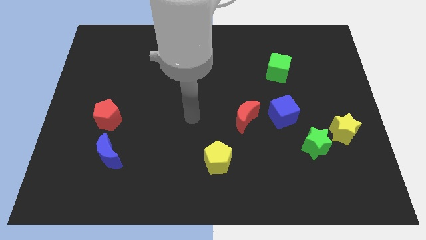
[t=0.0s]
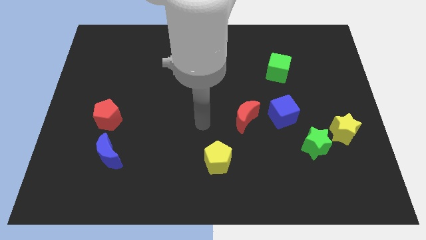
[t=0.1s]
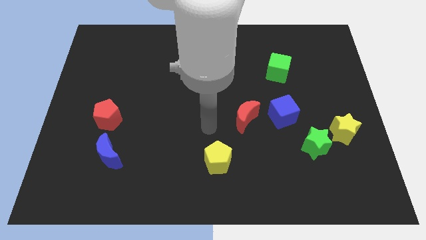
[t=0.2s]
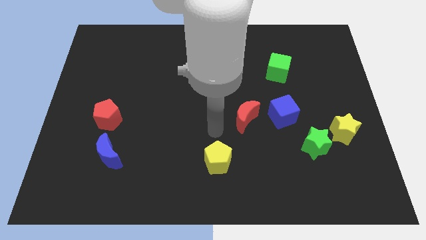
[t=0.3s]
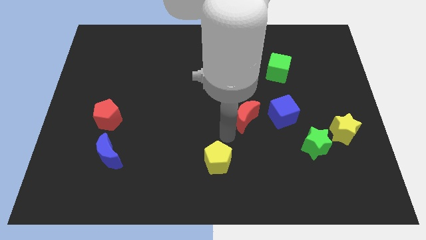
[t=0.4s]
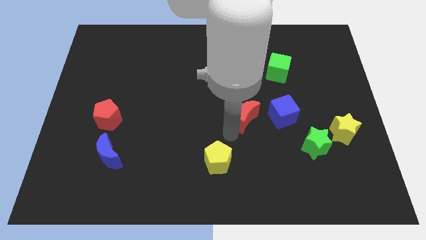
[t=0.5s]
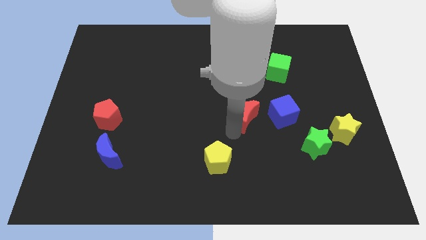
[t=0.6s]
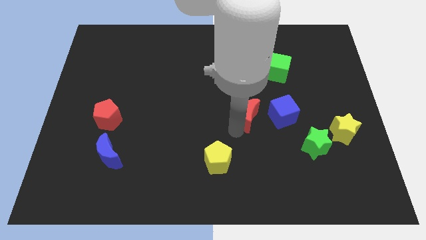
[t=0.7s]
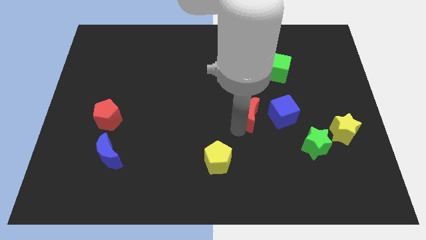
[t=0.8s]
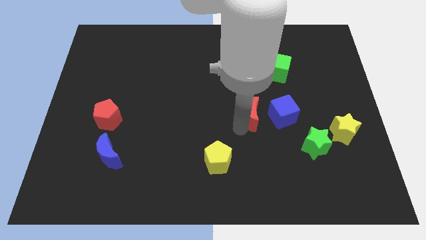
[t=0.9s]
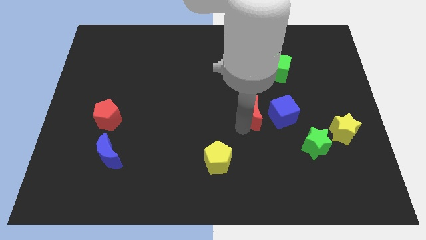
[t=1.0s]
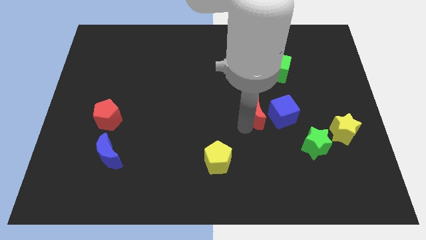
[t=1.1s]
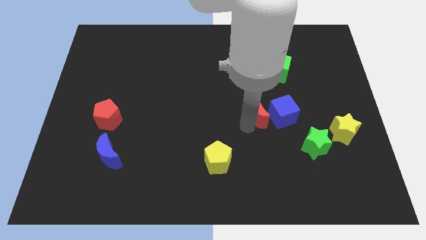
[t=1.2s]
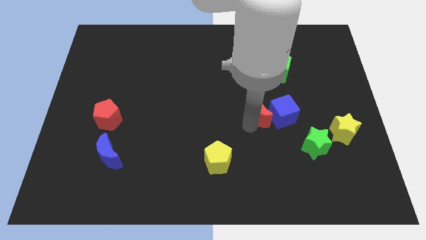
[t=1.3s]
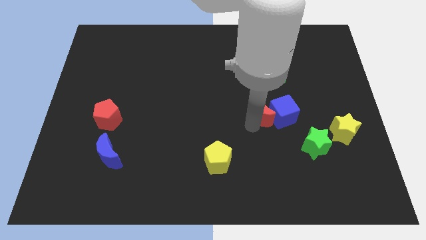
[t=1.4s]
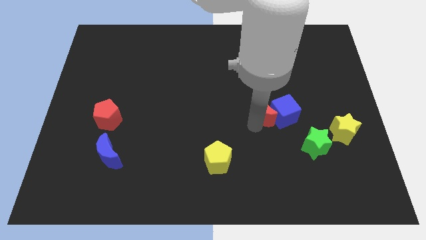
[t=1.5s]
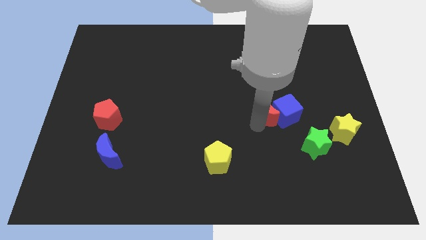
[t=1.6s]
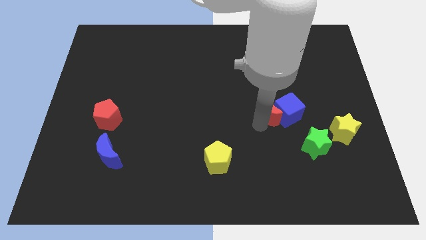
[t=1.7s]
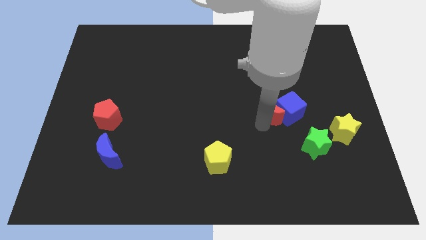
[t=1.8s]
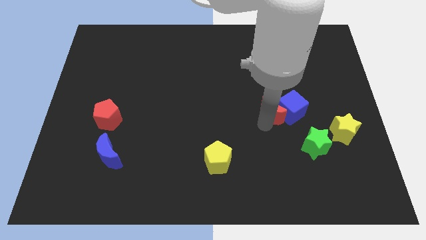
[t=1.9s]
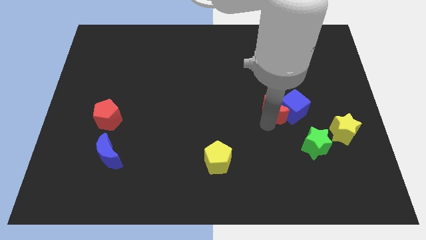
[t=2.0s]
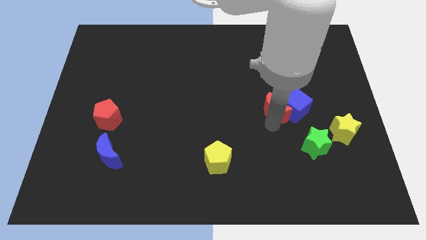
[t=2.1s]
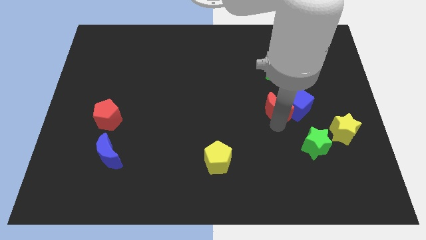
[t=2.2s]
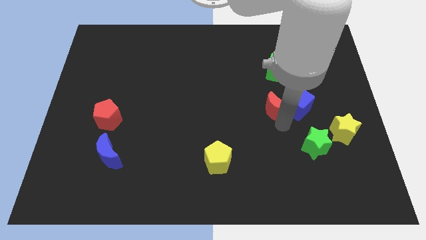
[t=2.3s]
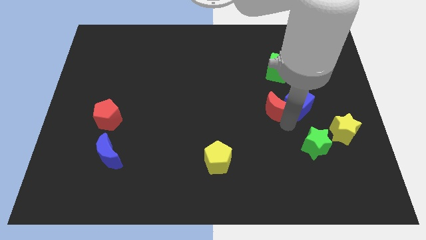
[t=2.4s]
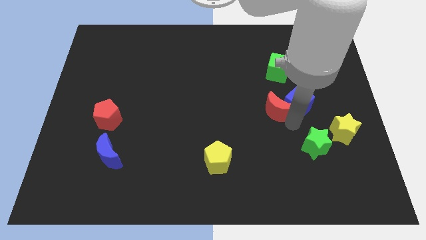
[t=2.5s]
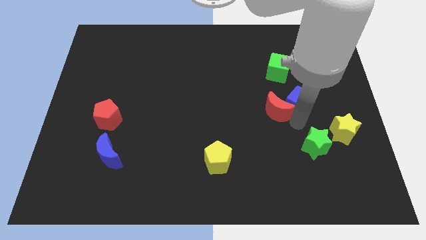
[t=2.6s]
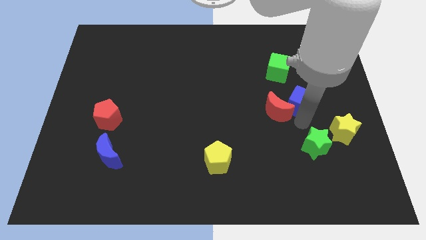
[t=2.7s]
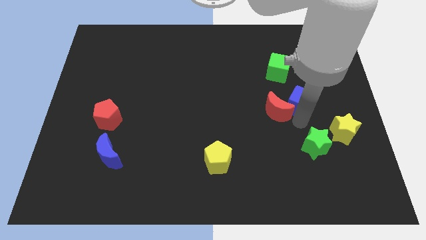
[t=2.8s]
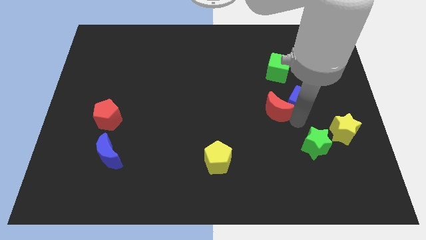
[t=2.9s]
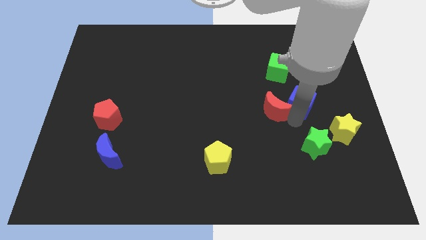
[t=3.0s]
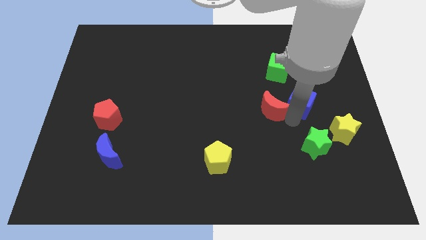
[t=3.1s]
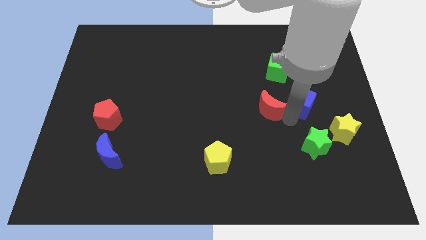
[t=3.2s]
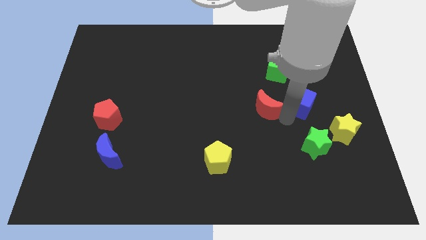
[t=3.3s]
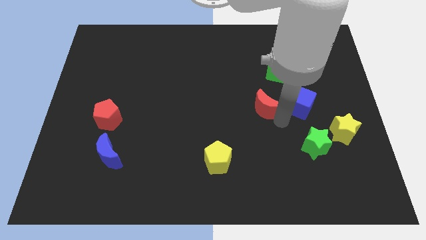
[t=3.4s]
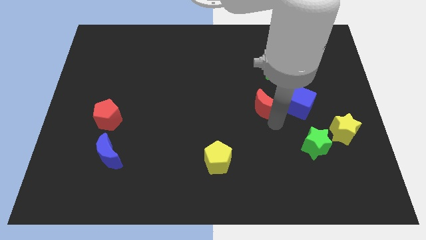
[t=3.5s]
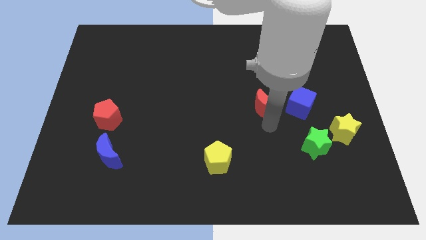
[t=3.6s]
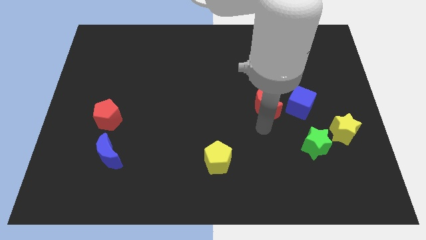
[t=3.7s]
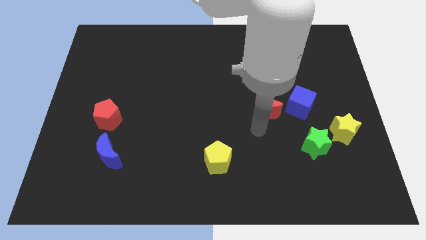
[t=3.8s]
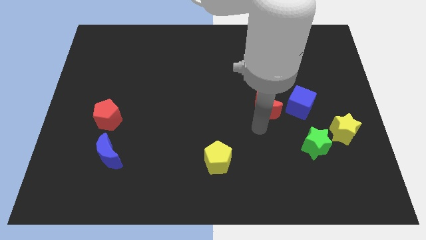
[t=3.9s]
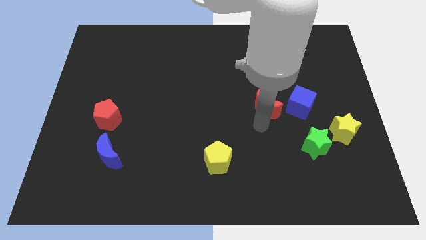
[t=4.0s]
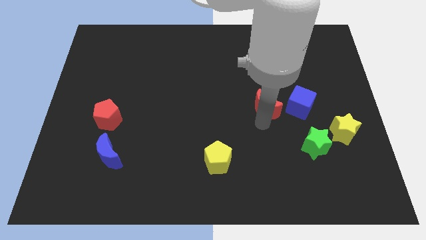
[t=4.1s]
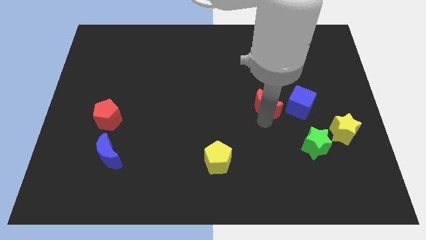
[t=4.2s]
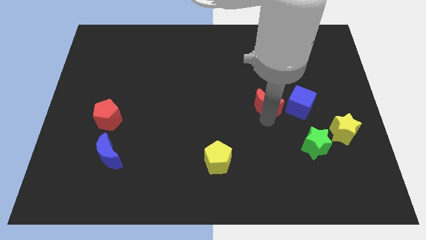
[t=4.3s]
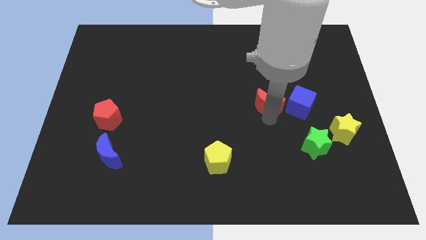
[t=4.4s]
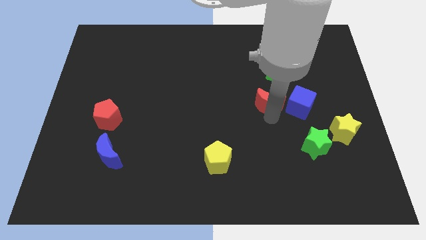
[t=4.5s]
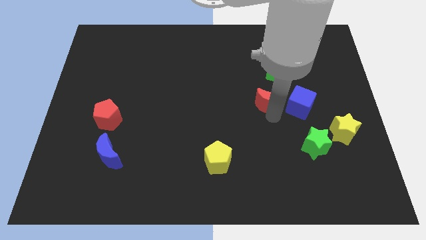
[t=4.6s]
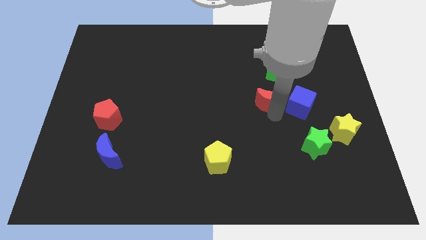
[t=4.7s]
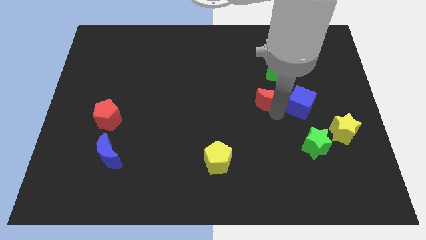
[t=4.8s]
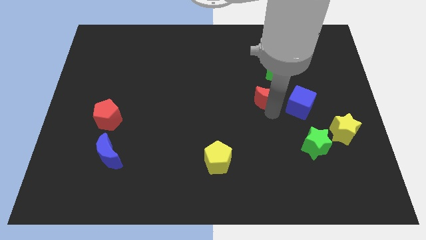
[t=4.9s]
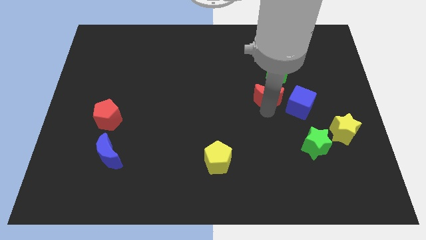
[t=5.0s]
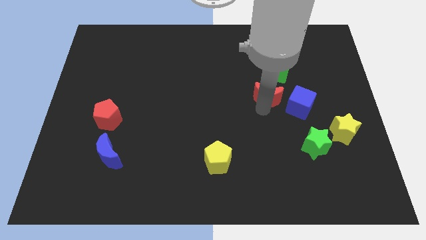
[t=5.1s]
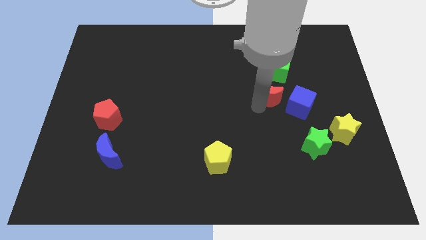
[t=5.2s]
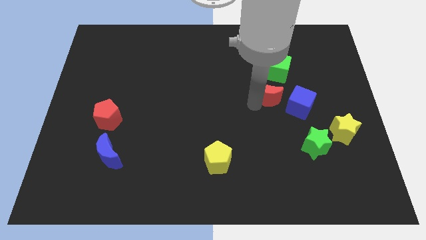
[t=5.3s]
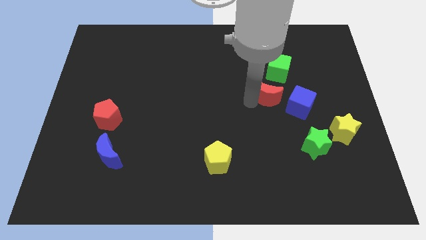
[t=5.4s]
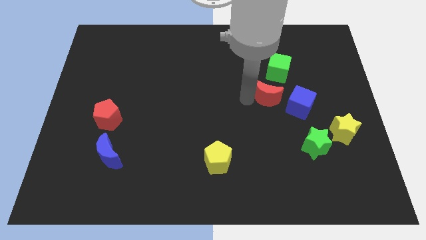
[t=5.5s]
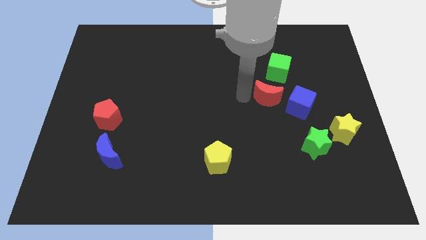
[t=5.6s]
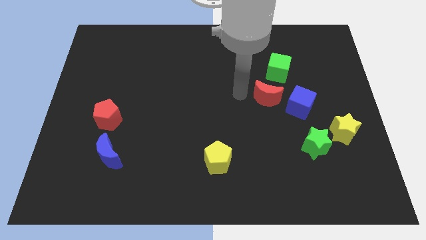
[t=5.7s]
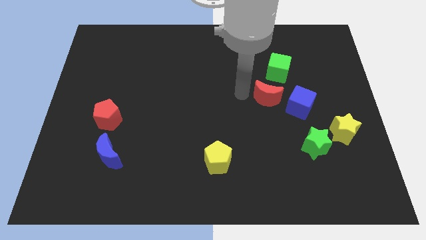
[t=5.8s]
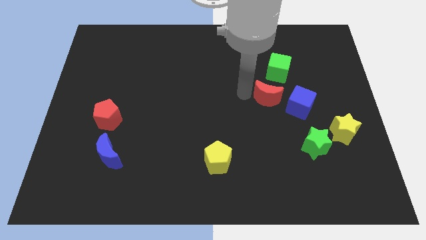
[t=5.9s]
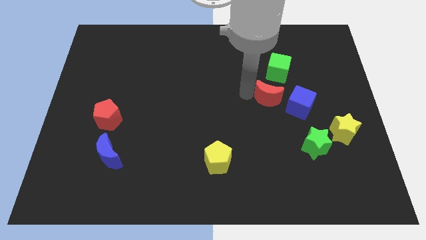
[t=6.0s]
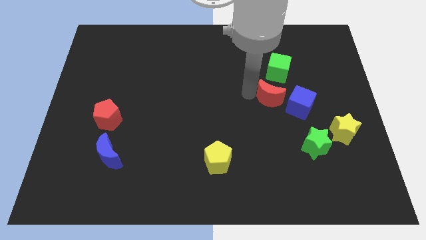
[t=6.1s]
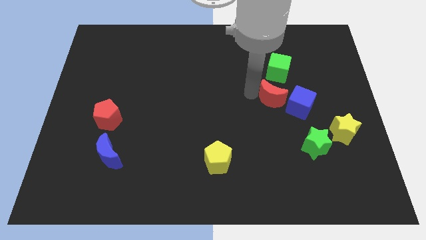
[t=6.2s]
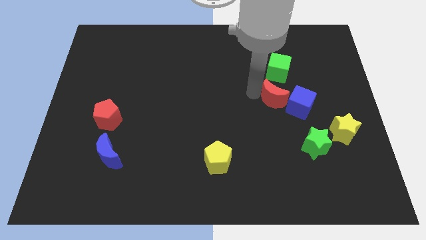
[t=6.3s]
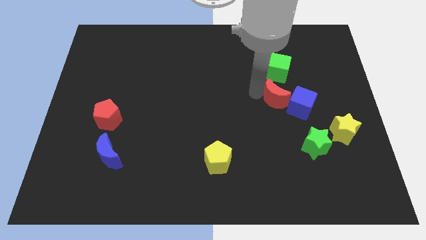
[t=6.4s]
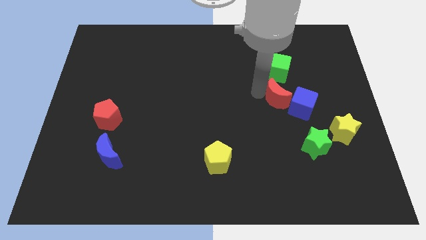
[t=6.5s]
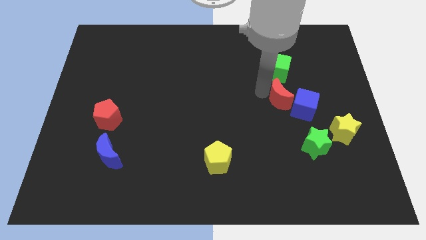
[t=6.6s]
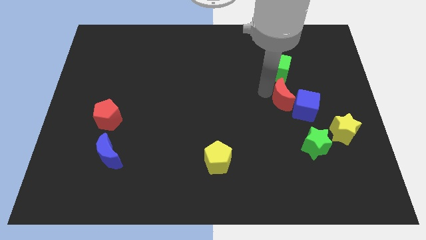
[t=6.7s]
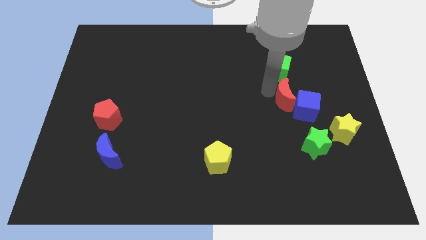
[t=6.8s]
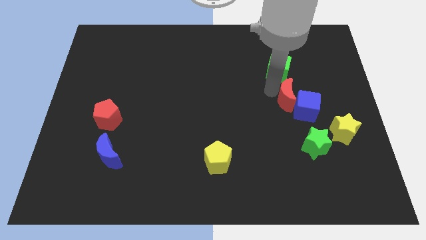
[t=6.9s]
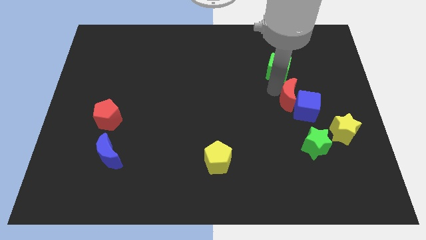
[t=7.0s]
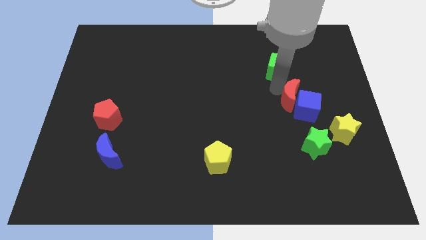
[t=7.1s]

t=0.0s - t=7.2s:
put the red moon to the top side of the green star
